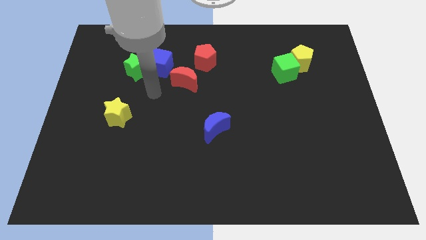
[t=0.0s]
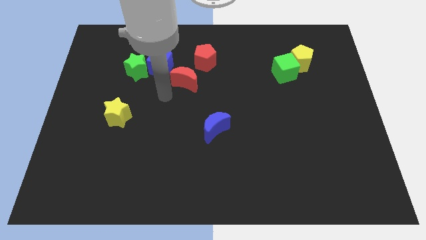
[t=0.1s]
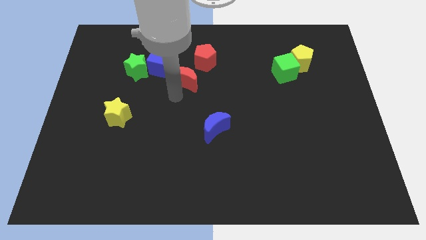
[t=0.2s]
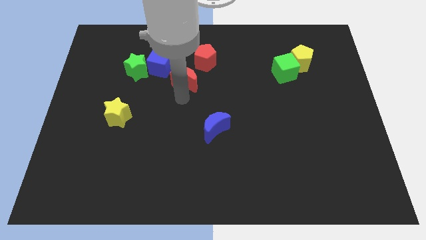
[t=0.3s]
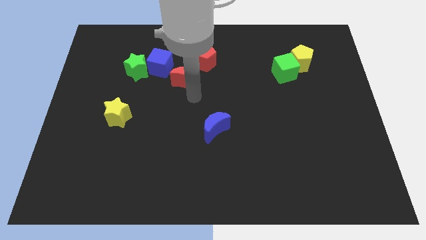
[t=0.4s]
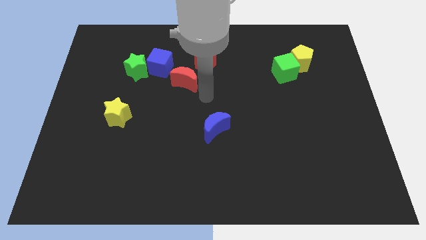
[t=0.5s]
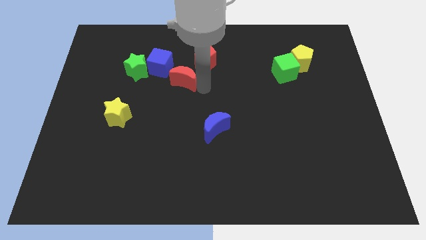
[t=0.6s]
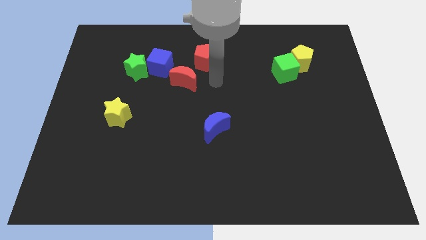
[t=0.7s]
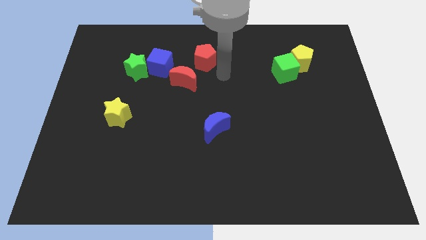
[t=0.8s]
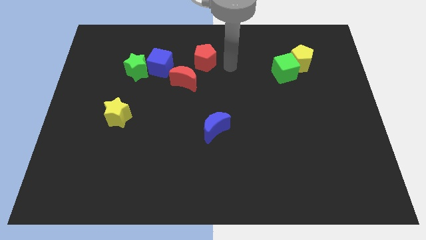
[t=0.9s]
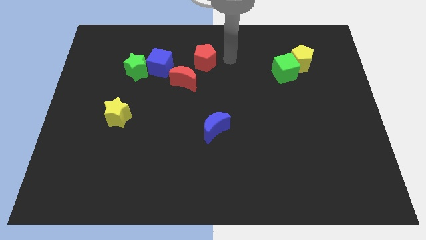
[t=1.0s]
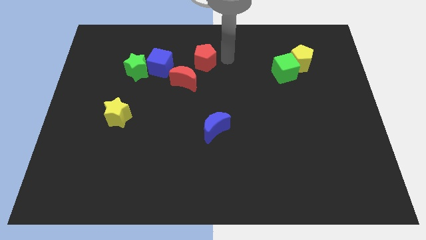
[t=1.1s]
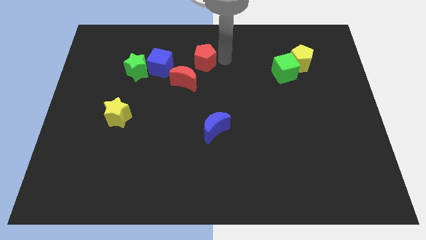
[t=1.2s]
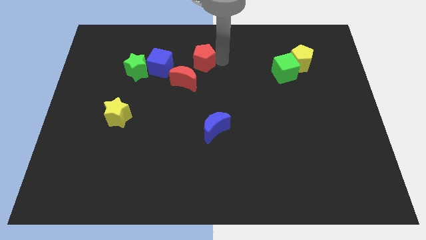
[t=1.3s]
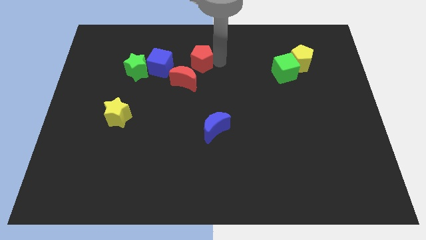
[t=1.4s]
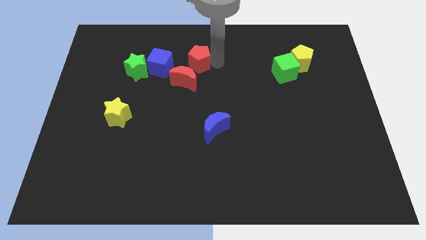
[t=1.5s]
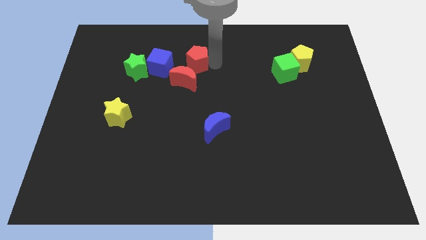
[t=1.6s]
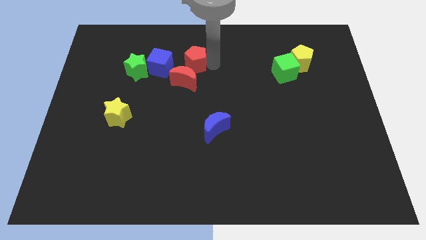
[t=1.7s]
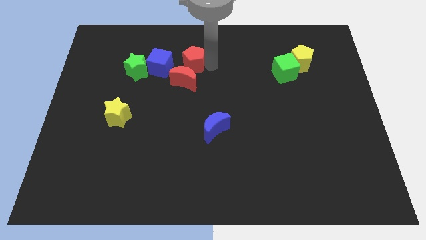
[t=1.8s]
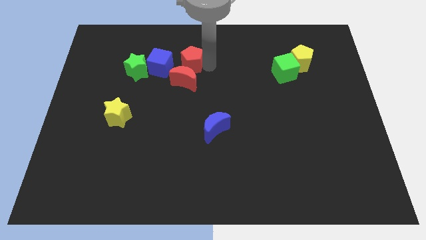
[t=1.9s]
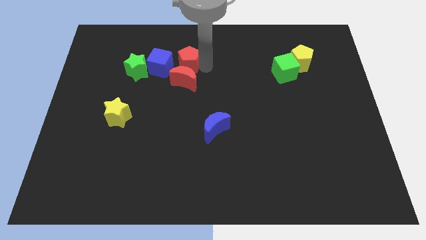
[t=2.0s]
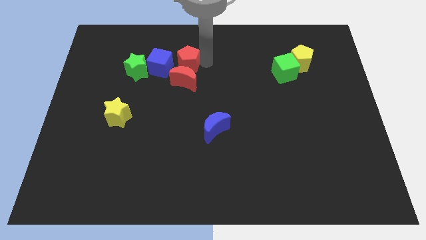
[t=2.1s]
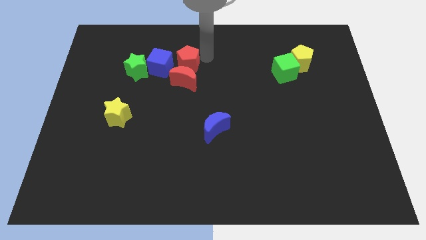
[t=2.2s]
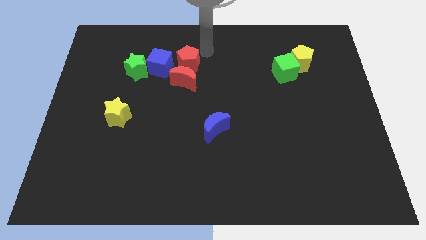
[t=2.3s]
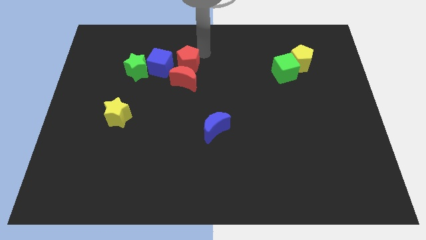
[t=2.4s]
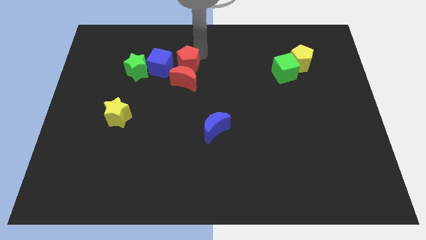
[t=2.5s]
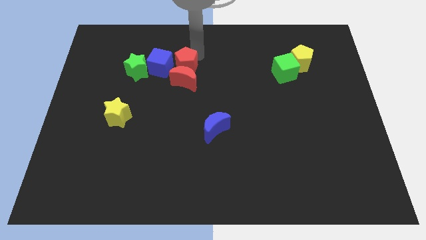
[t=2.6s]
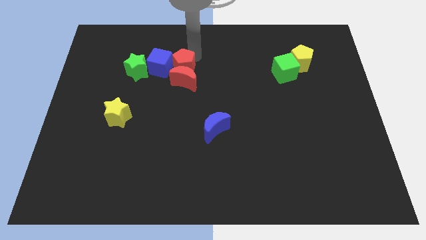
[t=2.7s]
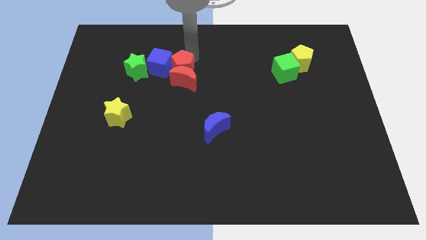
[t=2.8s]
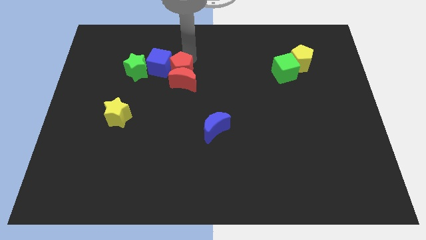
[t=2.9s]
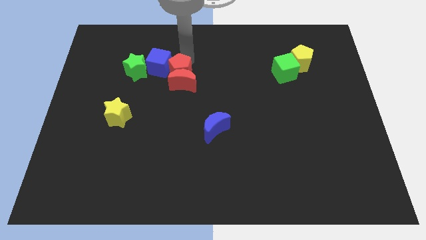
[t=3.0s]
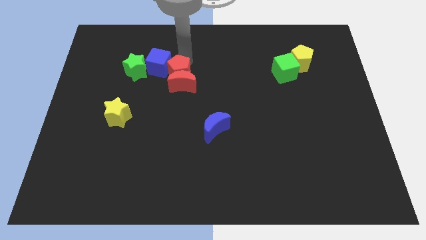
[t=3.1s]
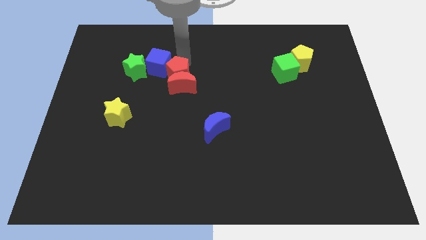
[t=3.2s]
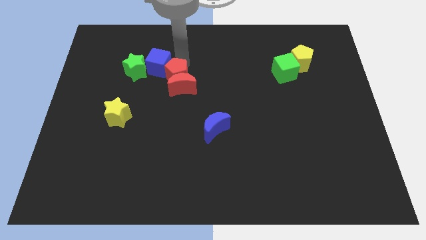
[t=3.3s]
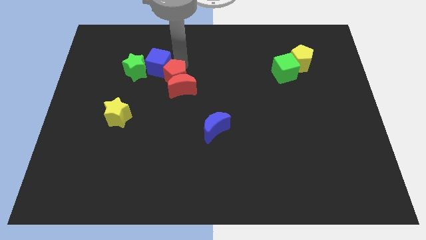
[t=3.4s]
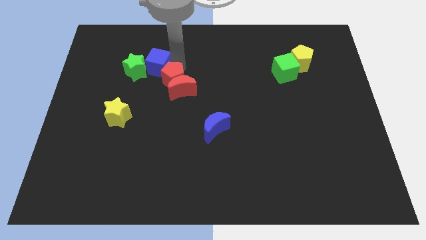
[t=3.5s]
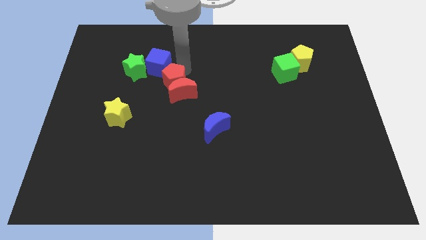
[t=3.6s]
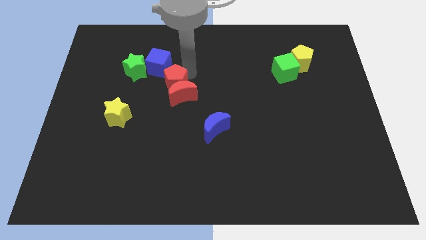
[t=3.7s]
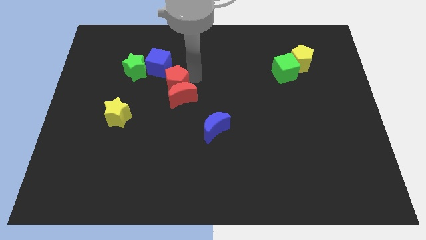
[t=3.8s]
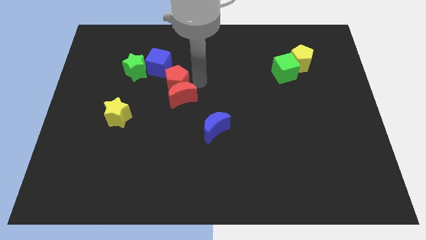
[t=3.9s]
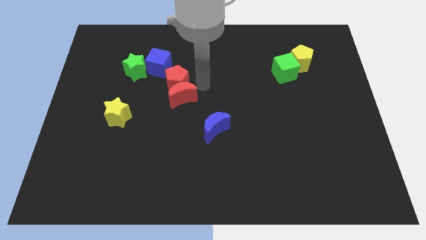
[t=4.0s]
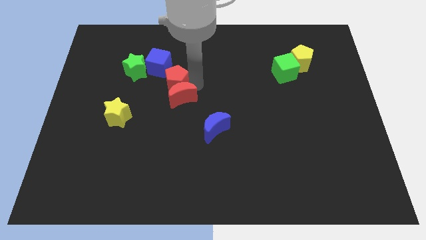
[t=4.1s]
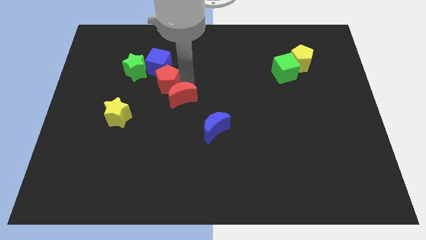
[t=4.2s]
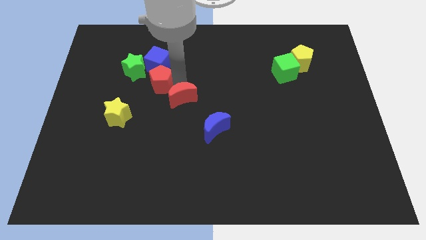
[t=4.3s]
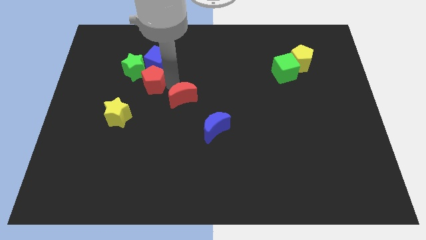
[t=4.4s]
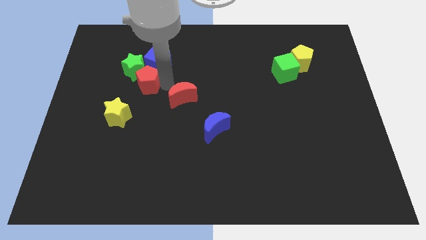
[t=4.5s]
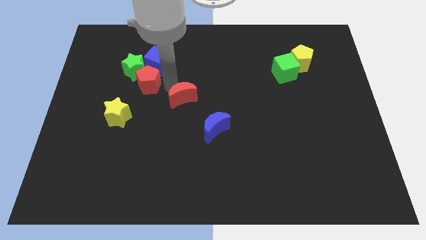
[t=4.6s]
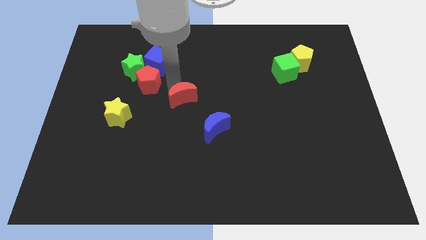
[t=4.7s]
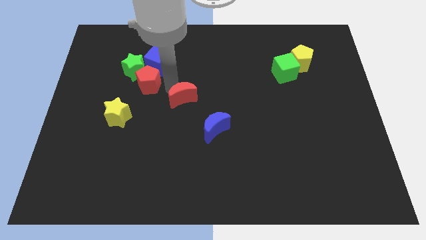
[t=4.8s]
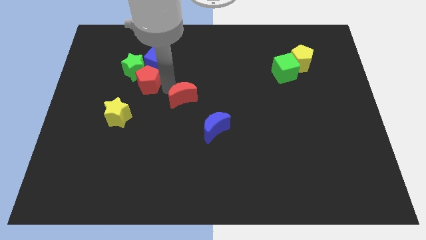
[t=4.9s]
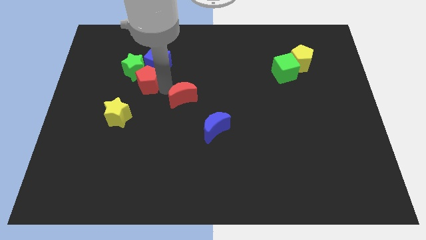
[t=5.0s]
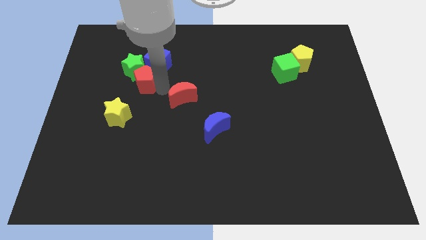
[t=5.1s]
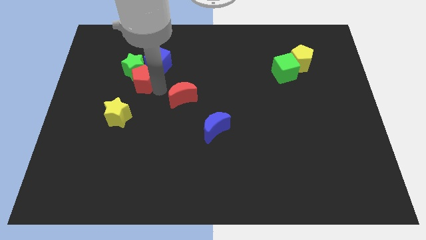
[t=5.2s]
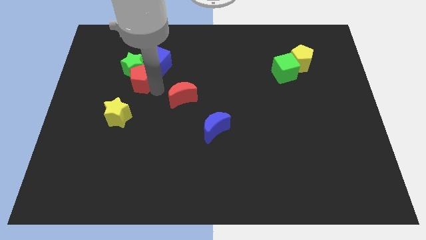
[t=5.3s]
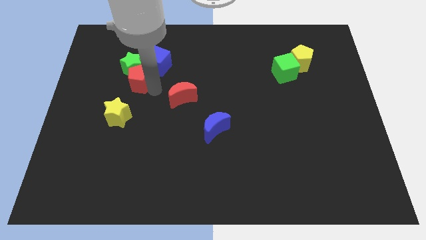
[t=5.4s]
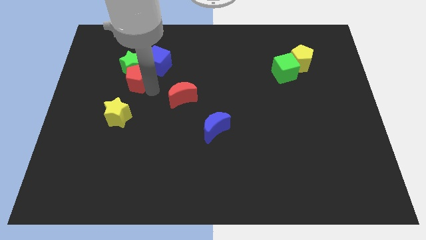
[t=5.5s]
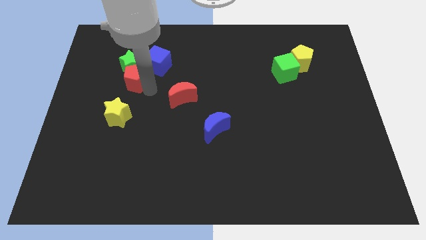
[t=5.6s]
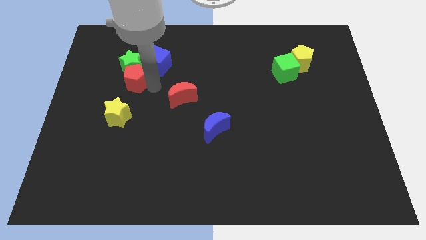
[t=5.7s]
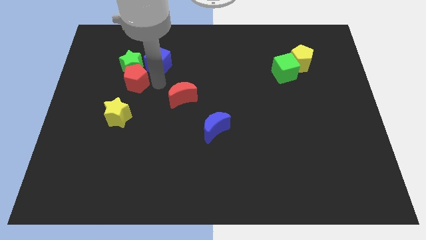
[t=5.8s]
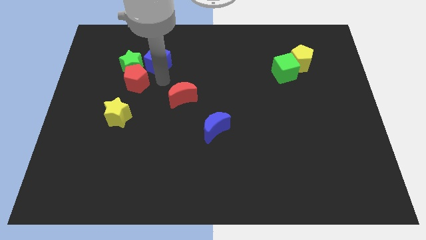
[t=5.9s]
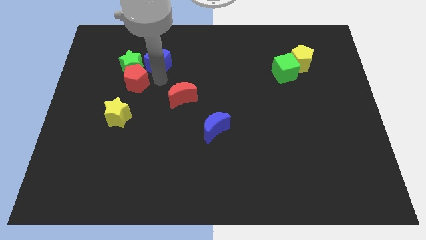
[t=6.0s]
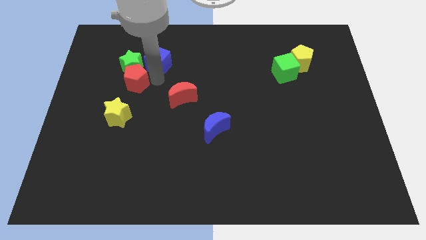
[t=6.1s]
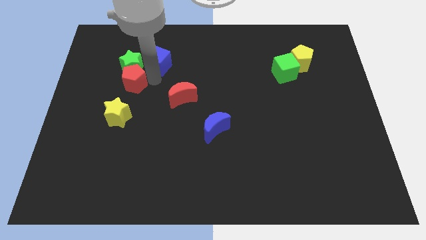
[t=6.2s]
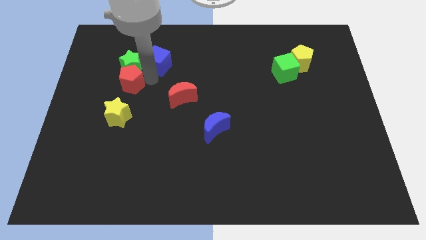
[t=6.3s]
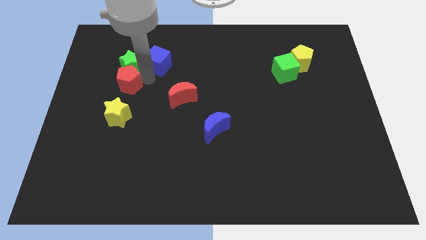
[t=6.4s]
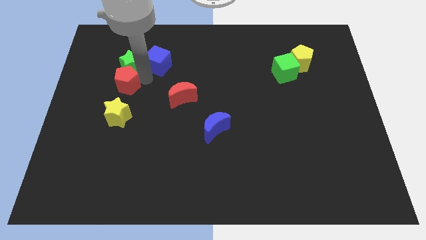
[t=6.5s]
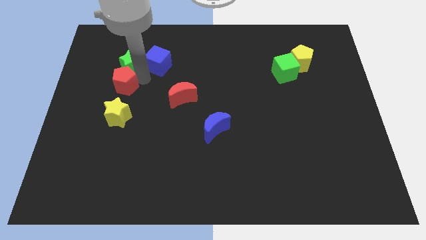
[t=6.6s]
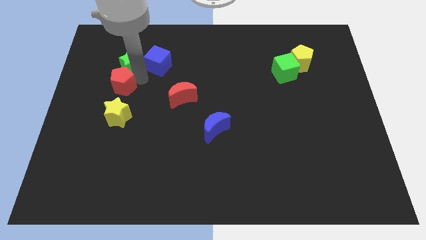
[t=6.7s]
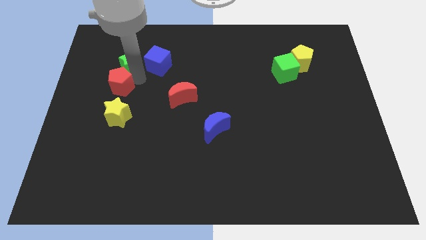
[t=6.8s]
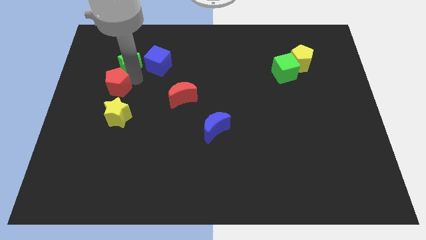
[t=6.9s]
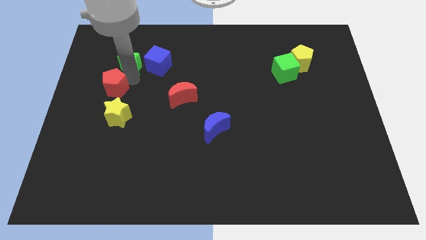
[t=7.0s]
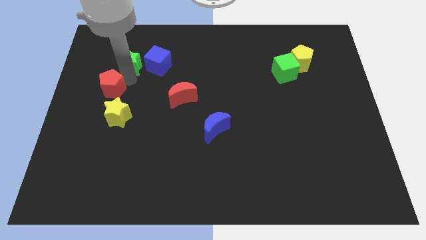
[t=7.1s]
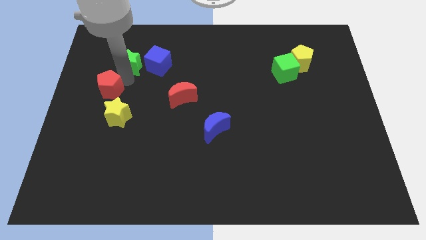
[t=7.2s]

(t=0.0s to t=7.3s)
put the red pentagon to the left side
